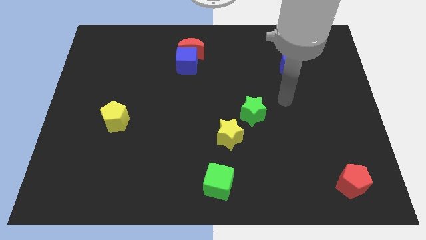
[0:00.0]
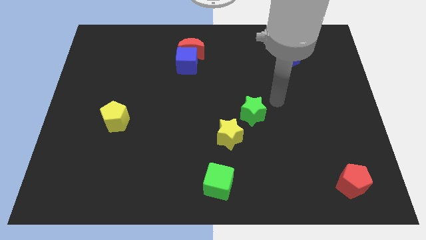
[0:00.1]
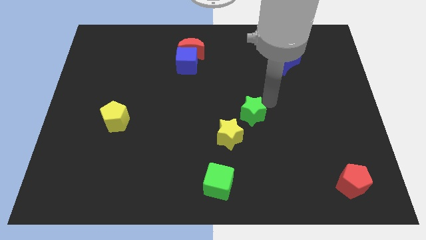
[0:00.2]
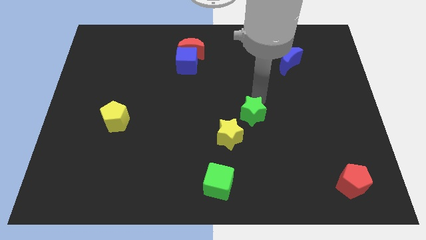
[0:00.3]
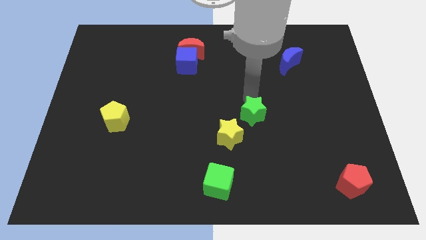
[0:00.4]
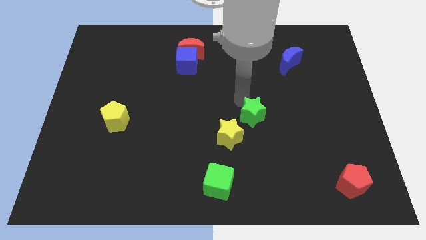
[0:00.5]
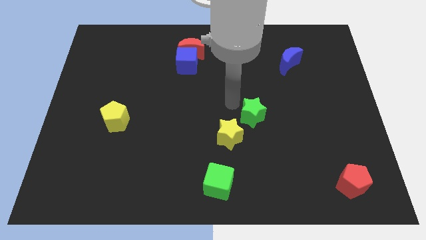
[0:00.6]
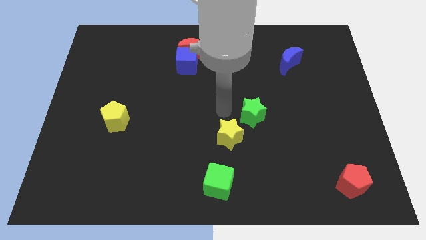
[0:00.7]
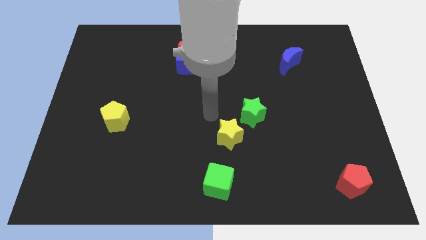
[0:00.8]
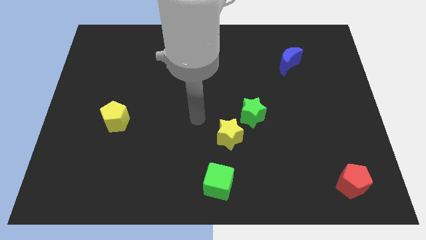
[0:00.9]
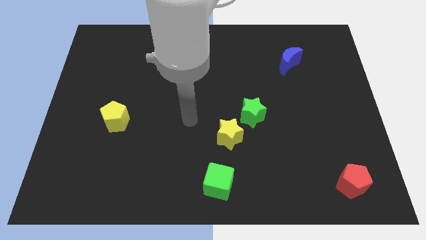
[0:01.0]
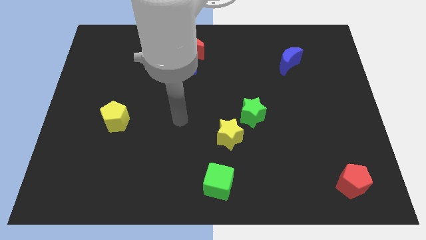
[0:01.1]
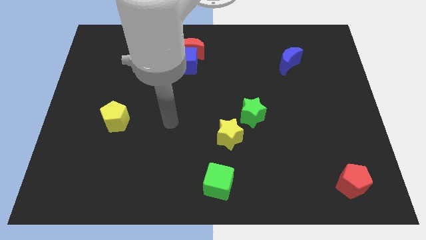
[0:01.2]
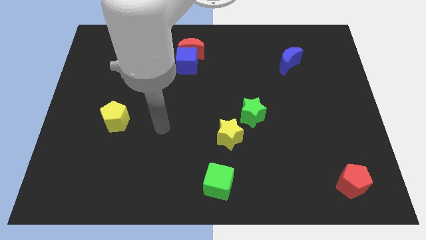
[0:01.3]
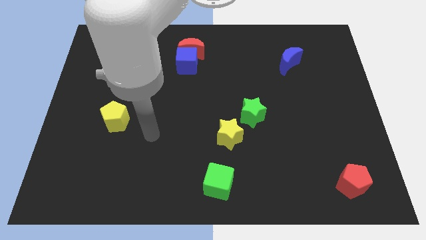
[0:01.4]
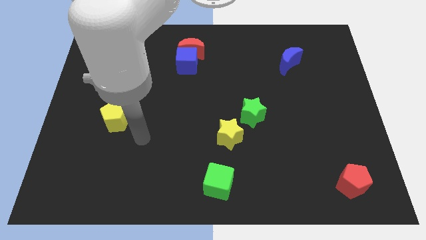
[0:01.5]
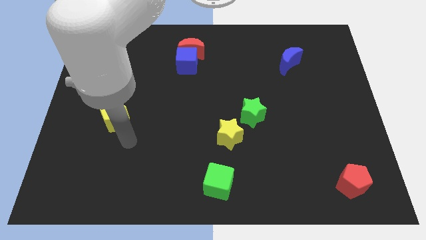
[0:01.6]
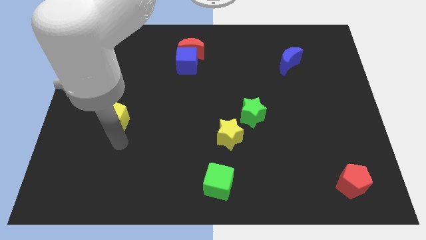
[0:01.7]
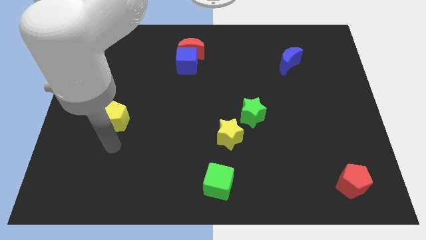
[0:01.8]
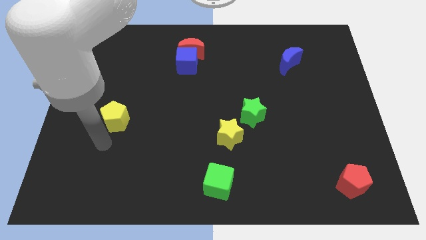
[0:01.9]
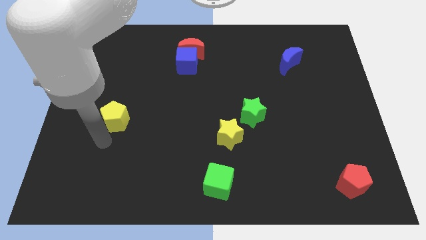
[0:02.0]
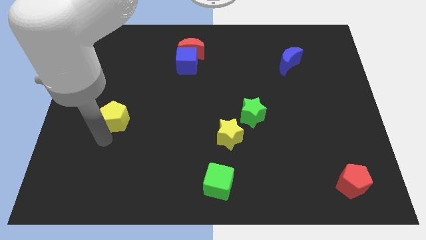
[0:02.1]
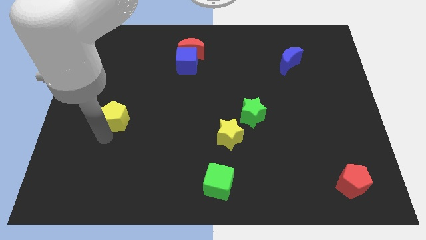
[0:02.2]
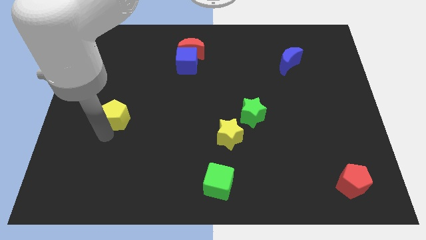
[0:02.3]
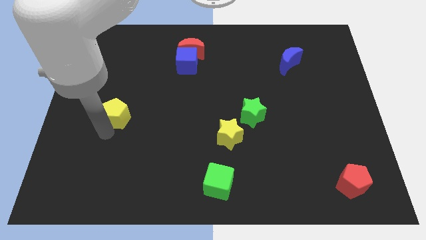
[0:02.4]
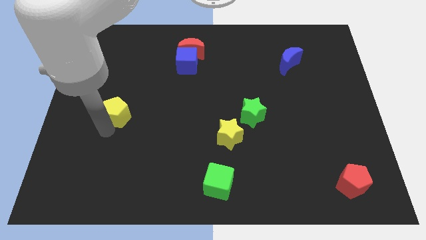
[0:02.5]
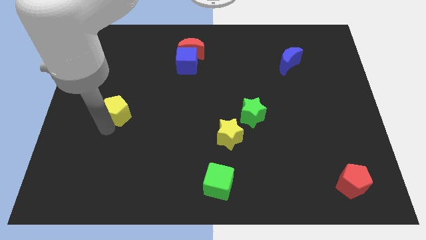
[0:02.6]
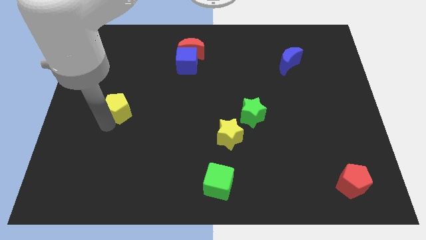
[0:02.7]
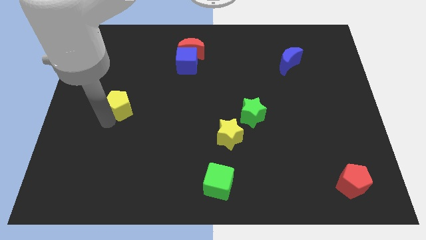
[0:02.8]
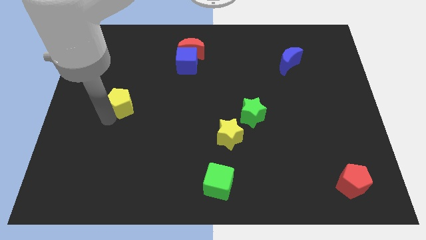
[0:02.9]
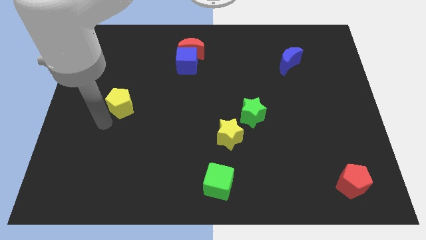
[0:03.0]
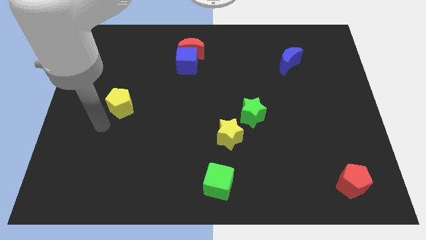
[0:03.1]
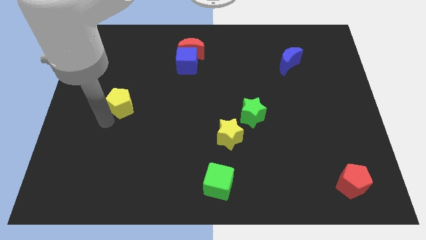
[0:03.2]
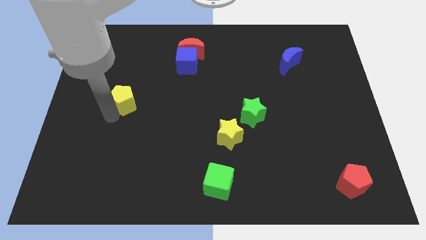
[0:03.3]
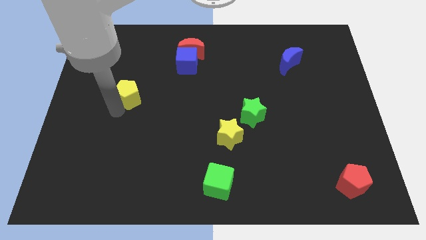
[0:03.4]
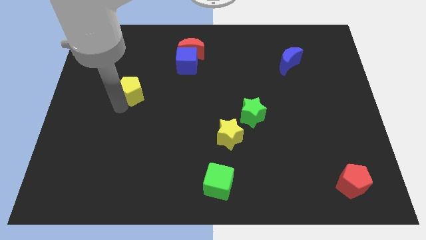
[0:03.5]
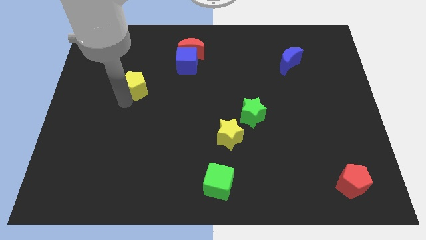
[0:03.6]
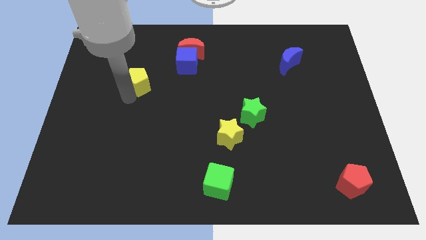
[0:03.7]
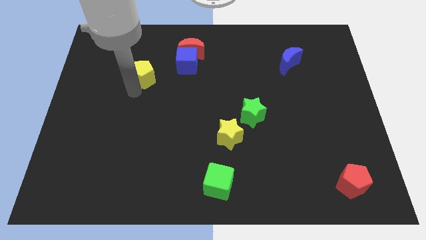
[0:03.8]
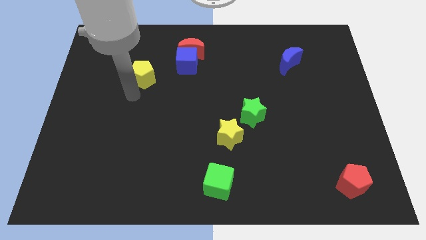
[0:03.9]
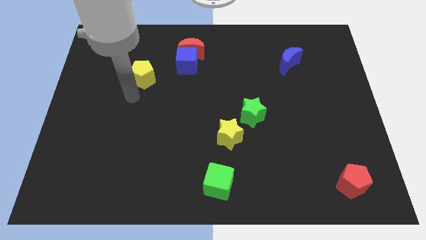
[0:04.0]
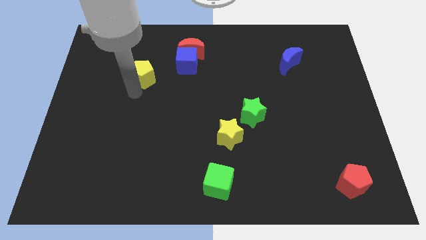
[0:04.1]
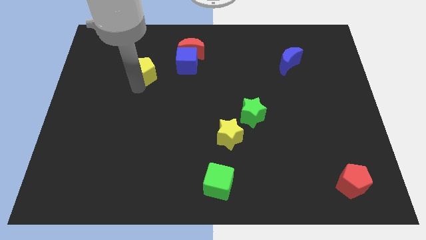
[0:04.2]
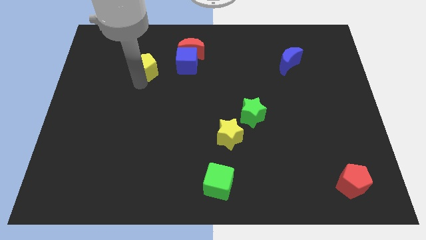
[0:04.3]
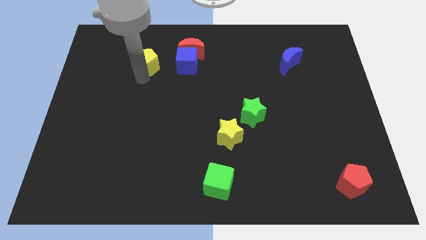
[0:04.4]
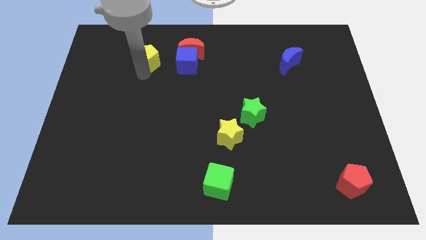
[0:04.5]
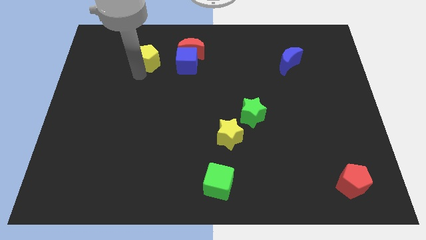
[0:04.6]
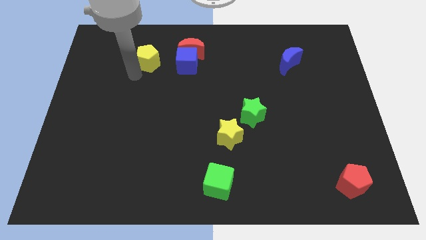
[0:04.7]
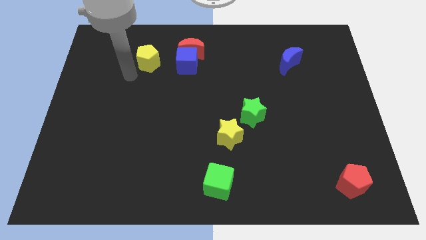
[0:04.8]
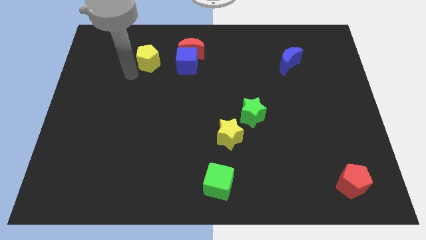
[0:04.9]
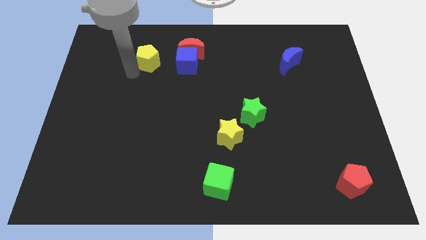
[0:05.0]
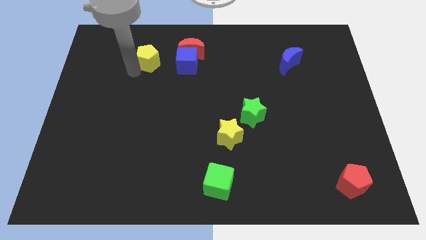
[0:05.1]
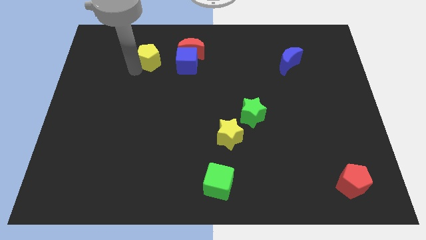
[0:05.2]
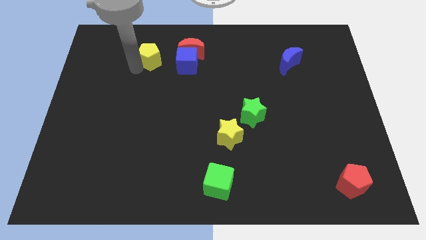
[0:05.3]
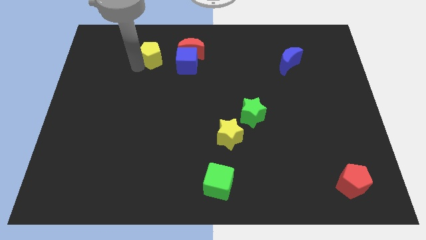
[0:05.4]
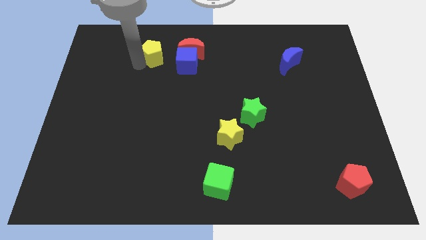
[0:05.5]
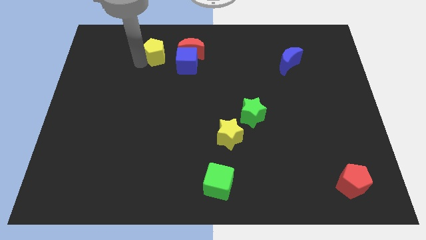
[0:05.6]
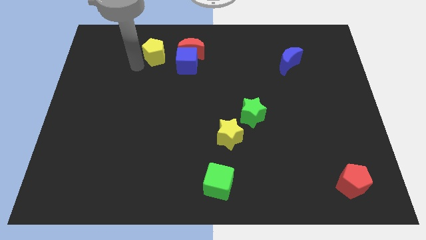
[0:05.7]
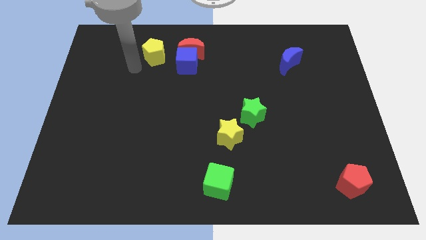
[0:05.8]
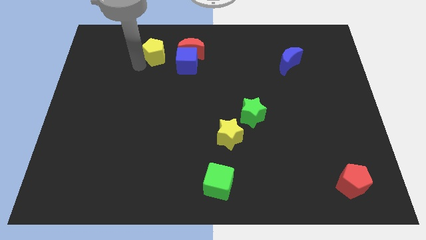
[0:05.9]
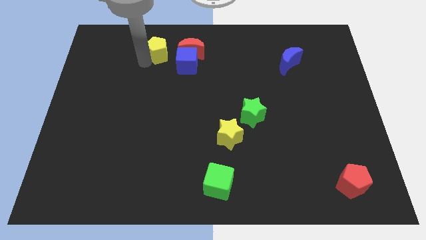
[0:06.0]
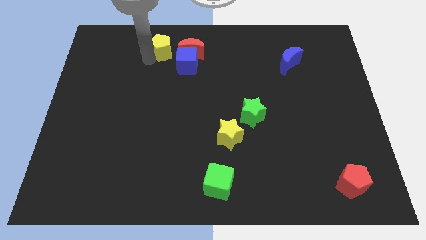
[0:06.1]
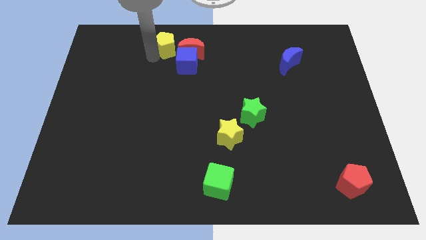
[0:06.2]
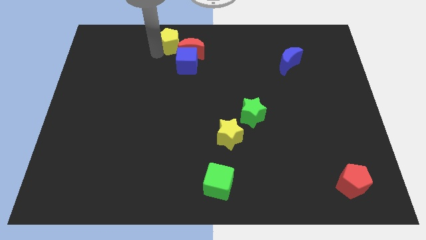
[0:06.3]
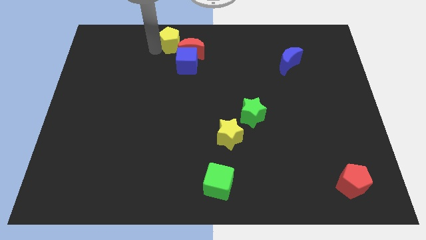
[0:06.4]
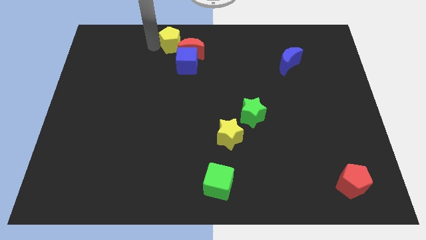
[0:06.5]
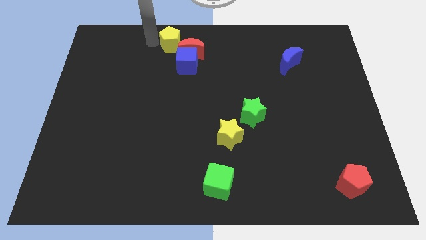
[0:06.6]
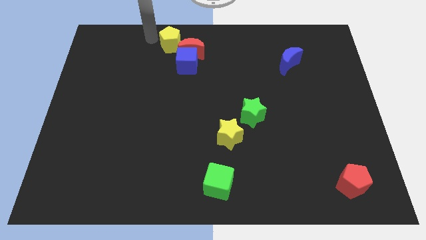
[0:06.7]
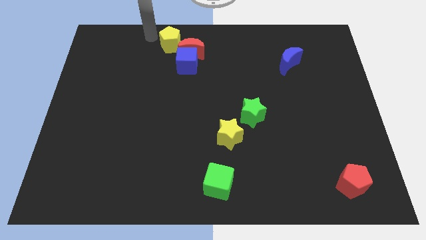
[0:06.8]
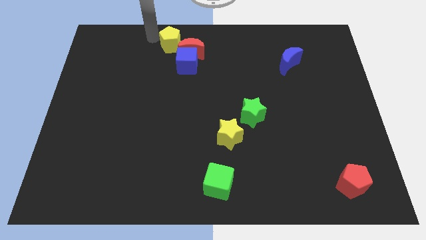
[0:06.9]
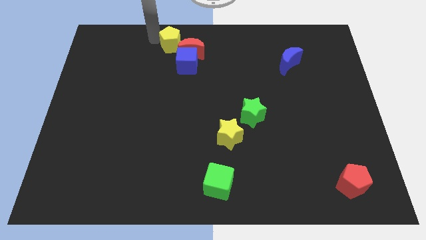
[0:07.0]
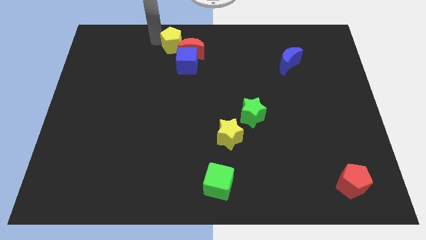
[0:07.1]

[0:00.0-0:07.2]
put the yellow pentagon close to the red moon
